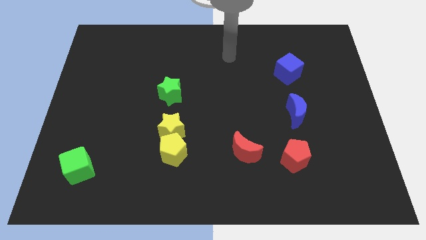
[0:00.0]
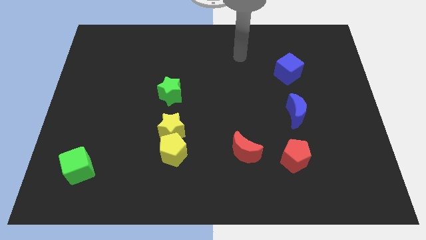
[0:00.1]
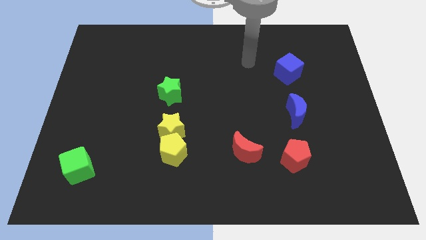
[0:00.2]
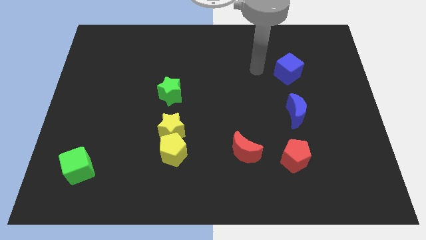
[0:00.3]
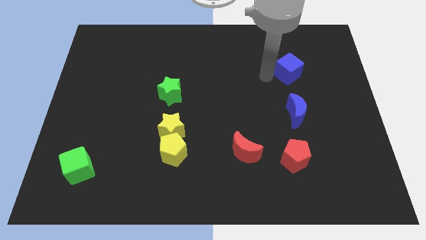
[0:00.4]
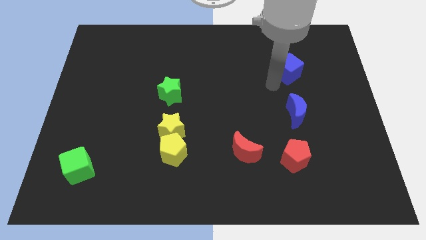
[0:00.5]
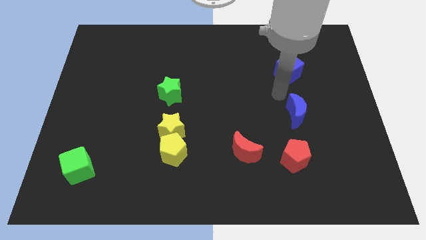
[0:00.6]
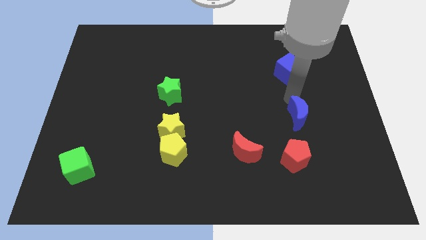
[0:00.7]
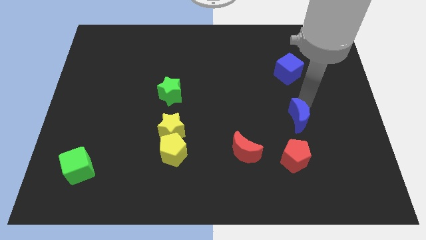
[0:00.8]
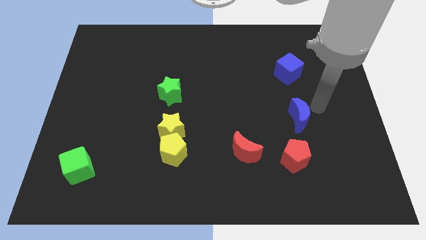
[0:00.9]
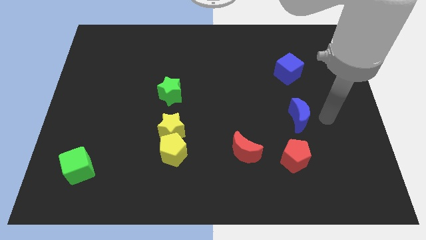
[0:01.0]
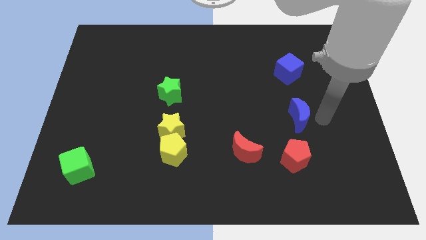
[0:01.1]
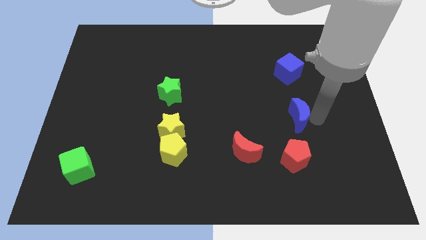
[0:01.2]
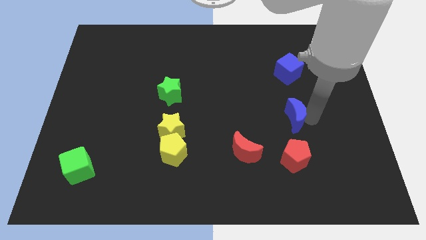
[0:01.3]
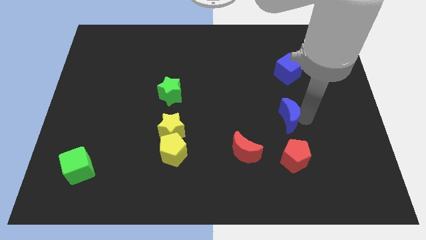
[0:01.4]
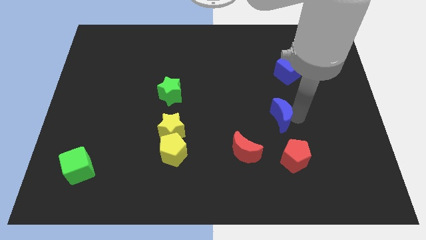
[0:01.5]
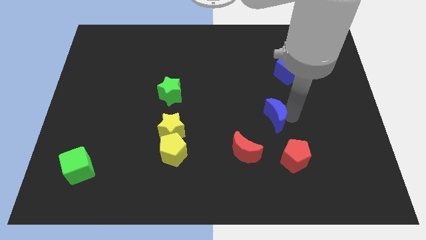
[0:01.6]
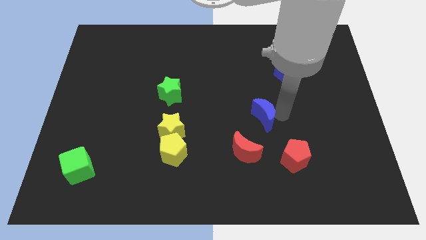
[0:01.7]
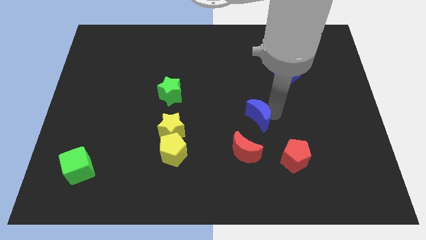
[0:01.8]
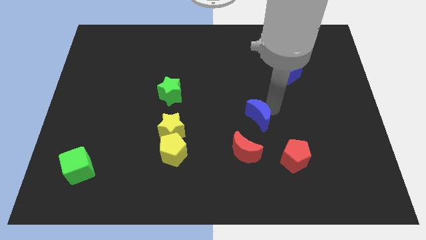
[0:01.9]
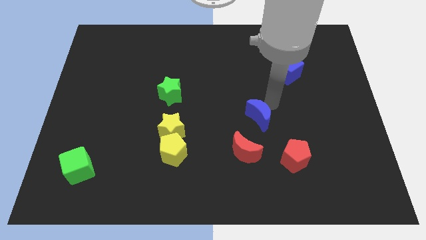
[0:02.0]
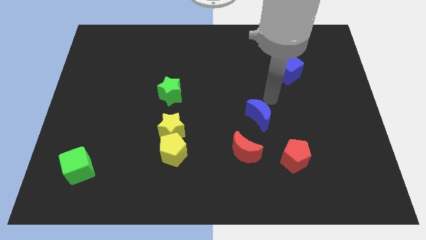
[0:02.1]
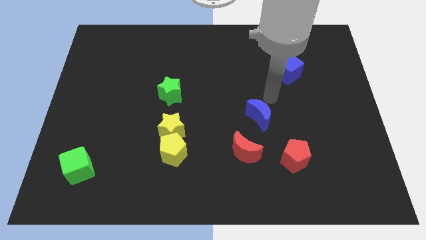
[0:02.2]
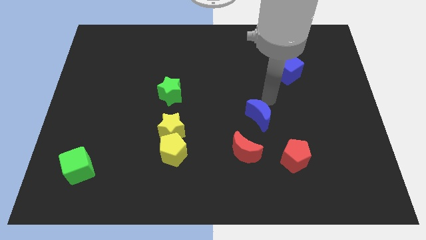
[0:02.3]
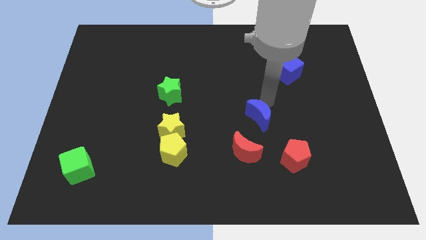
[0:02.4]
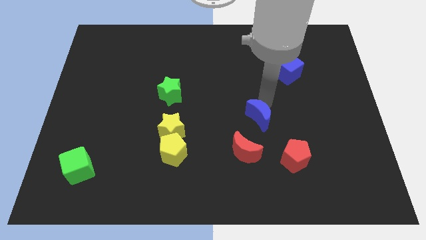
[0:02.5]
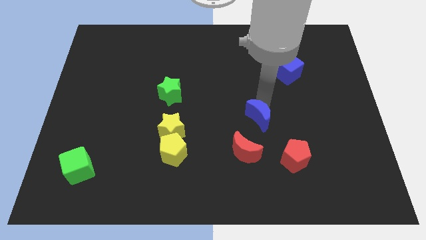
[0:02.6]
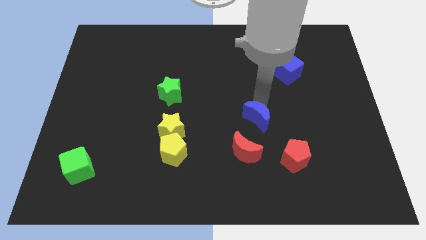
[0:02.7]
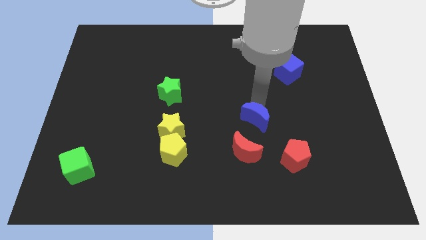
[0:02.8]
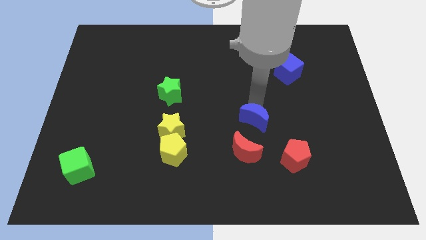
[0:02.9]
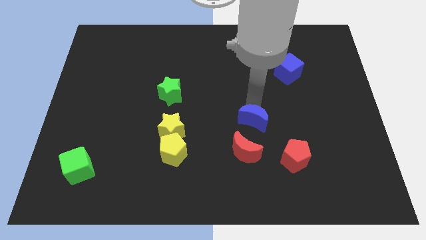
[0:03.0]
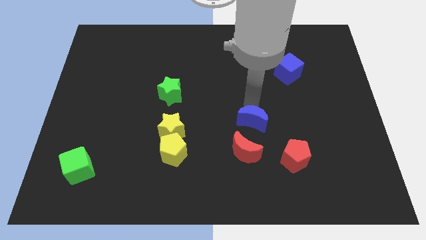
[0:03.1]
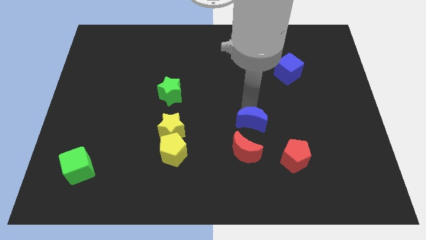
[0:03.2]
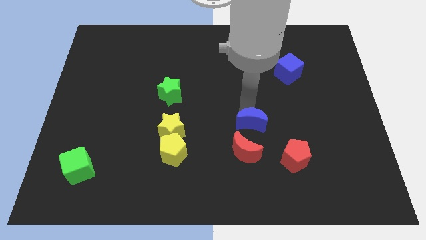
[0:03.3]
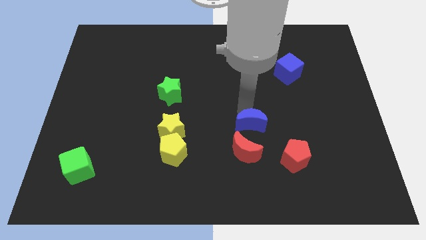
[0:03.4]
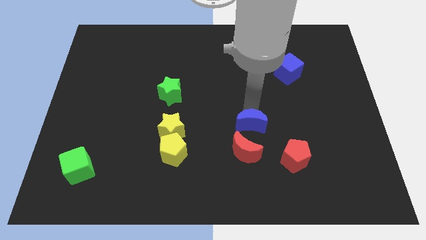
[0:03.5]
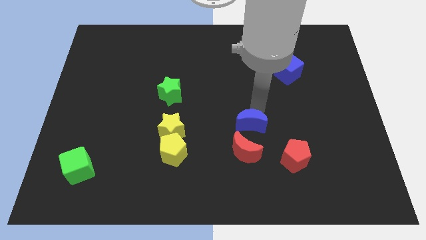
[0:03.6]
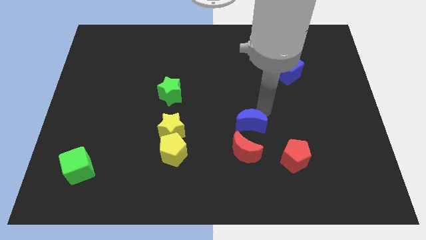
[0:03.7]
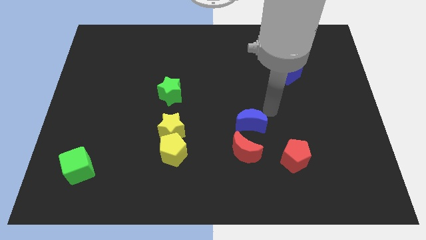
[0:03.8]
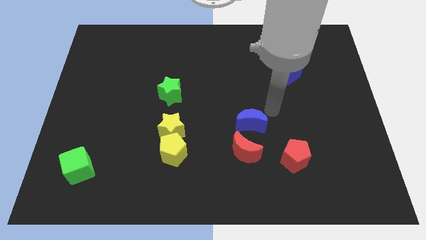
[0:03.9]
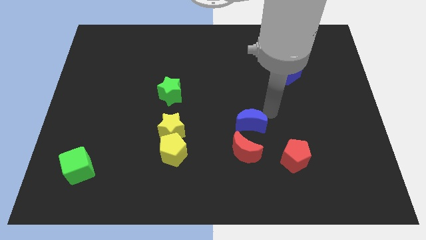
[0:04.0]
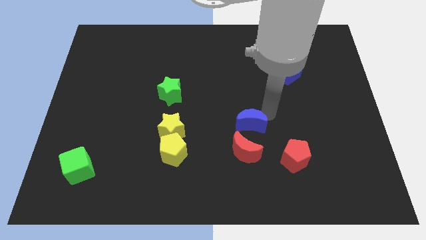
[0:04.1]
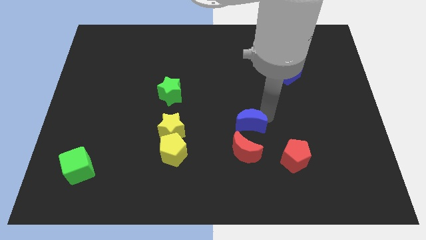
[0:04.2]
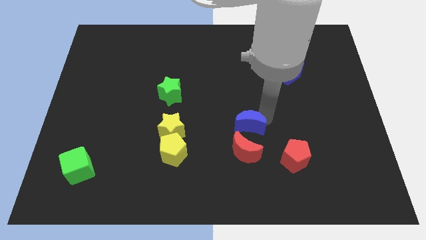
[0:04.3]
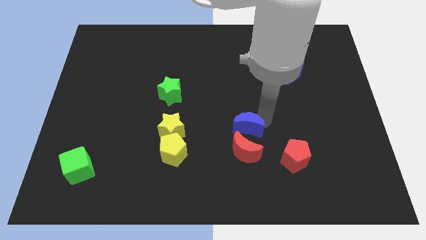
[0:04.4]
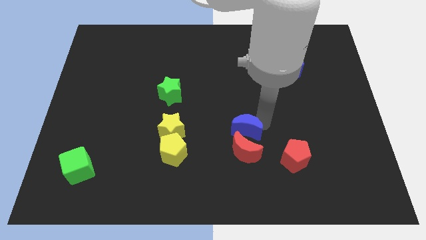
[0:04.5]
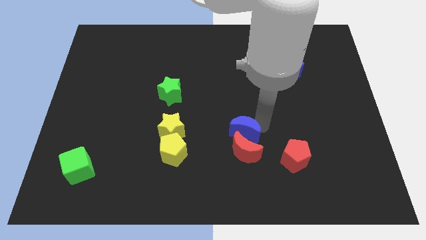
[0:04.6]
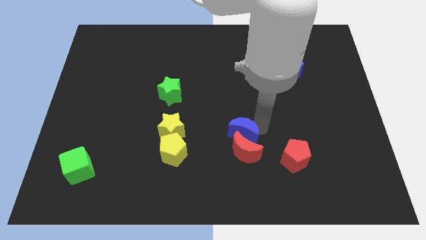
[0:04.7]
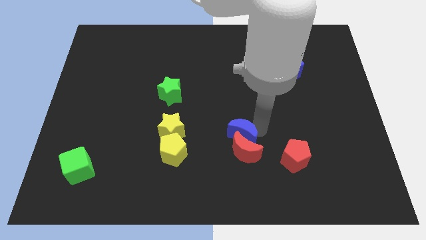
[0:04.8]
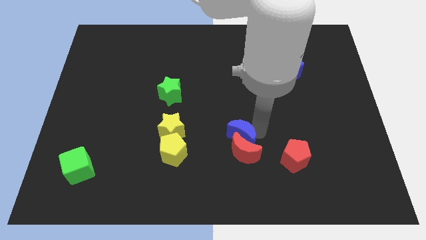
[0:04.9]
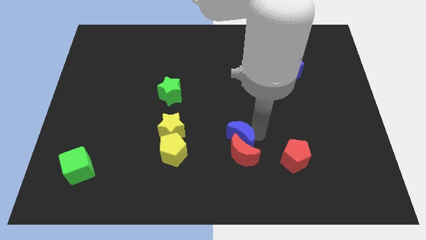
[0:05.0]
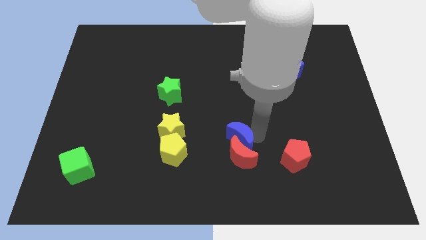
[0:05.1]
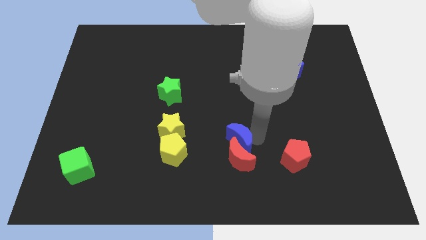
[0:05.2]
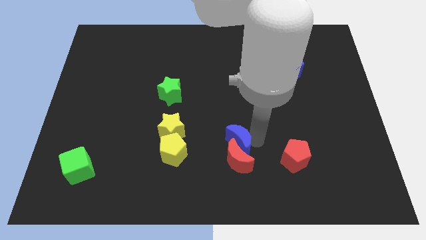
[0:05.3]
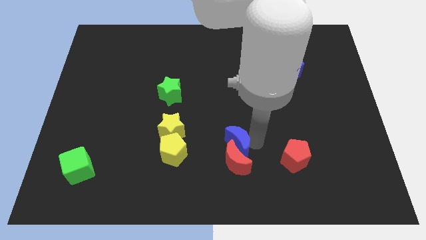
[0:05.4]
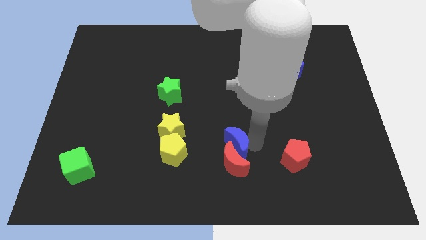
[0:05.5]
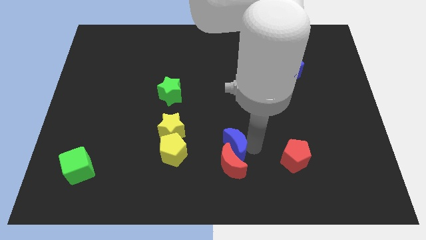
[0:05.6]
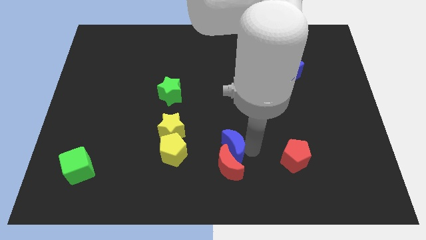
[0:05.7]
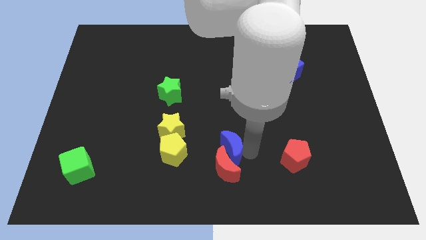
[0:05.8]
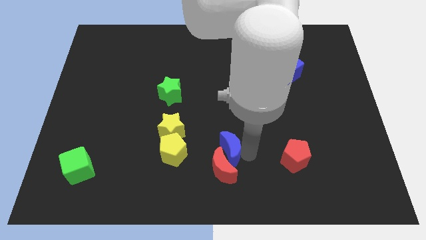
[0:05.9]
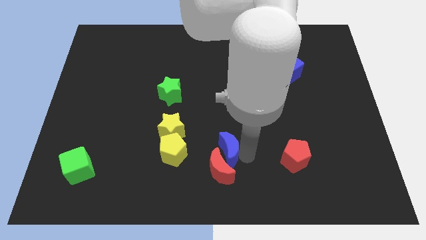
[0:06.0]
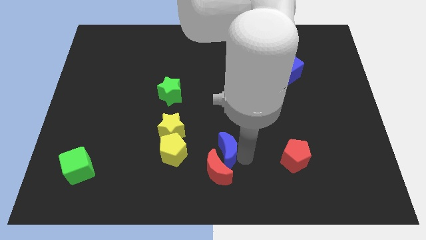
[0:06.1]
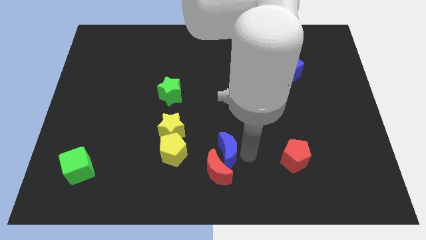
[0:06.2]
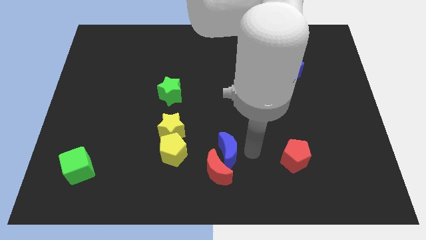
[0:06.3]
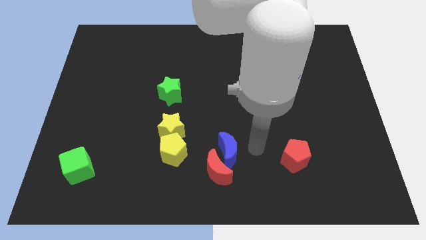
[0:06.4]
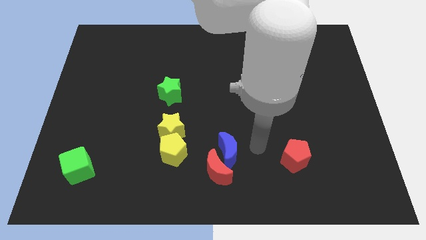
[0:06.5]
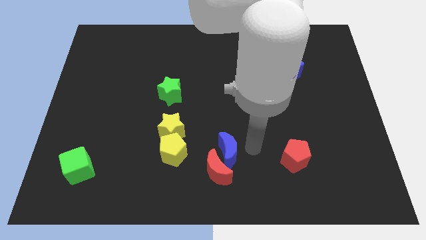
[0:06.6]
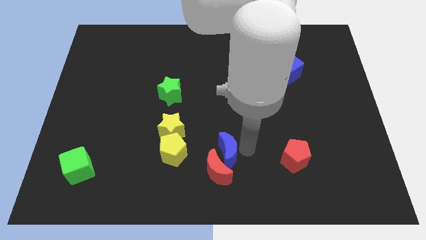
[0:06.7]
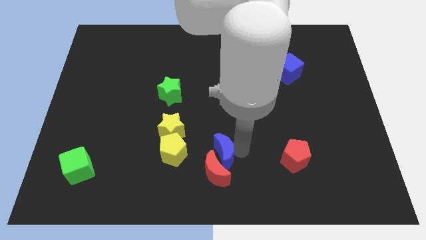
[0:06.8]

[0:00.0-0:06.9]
put the blue moon to the bottom

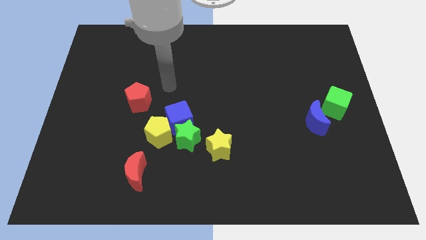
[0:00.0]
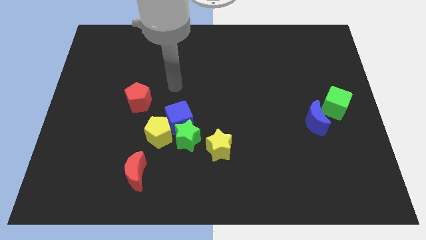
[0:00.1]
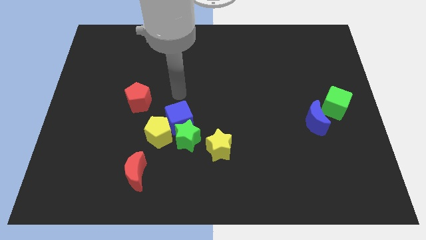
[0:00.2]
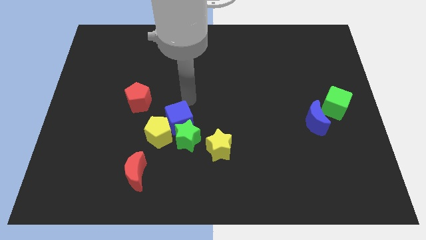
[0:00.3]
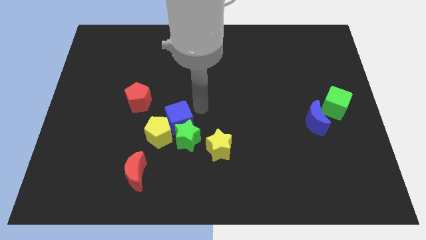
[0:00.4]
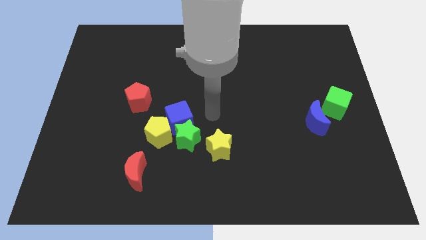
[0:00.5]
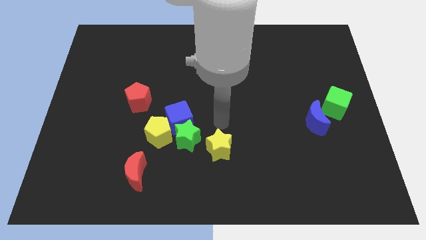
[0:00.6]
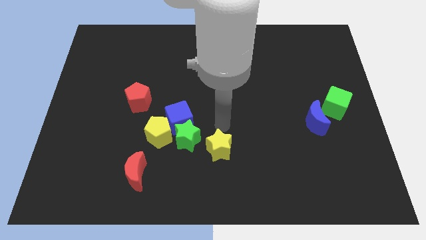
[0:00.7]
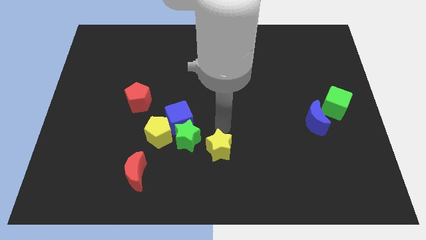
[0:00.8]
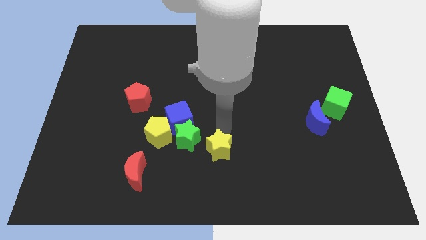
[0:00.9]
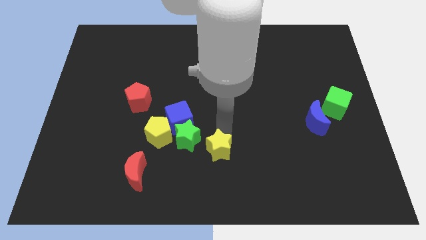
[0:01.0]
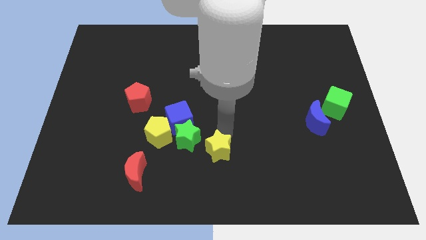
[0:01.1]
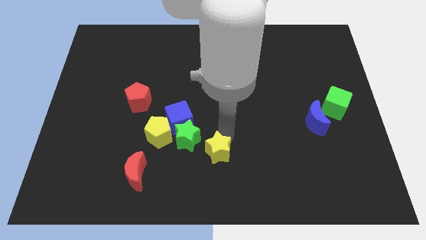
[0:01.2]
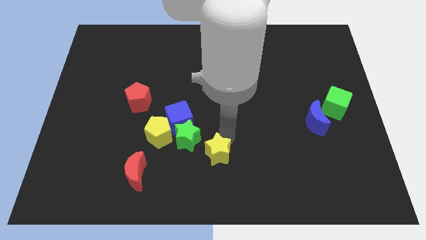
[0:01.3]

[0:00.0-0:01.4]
slide the yellow star to the bottom
